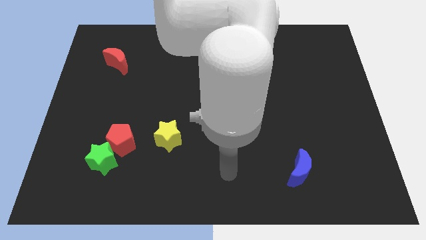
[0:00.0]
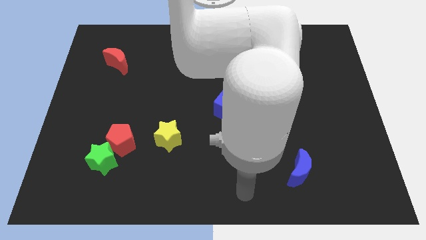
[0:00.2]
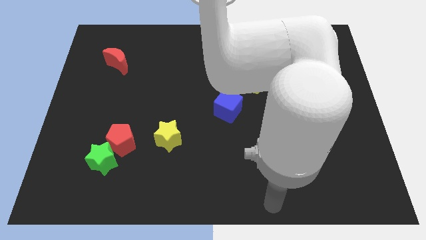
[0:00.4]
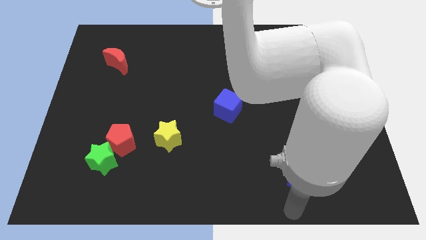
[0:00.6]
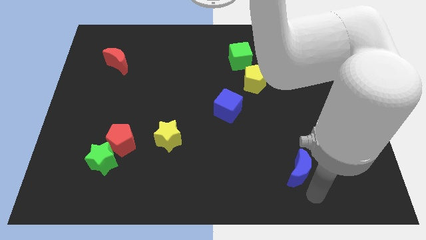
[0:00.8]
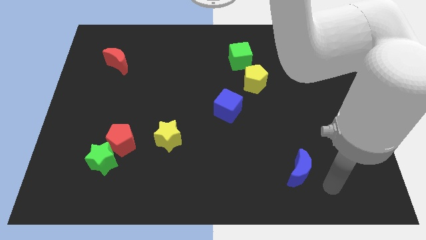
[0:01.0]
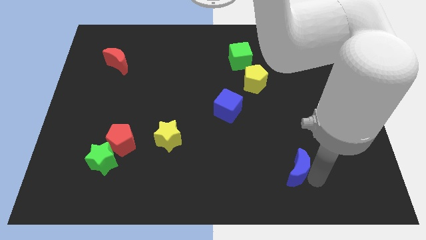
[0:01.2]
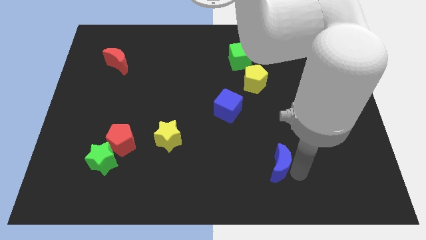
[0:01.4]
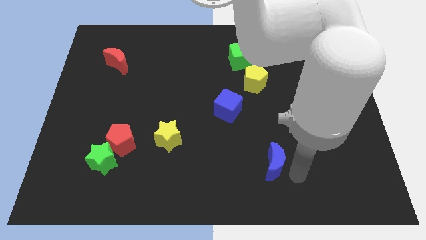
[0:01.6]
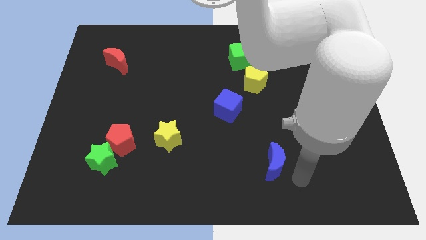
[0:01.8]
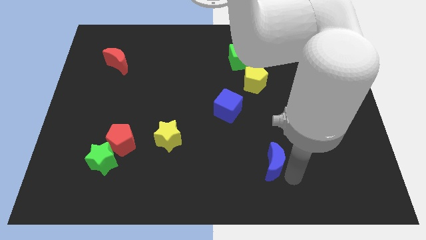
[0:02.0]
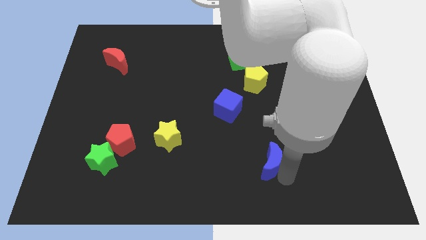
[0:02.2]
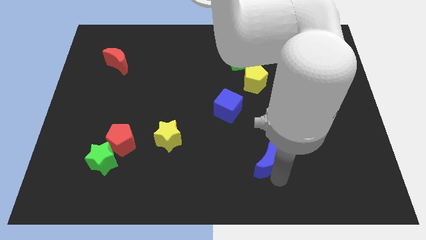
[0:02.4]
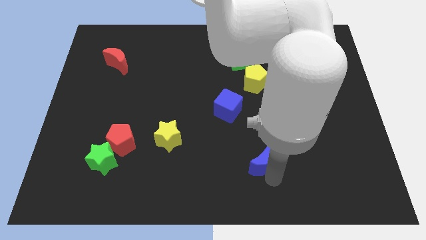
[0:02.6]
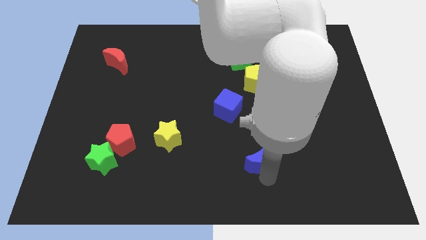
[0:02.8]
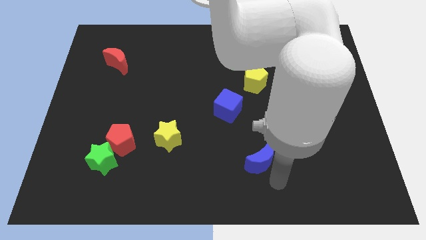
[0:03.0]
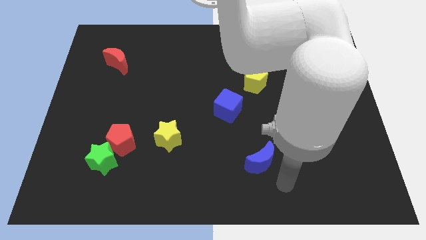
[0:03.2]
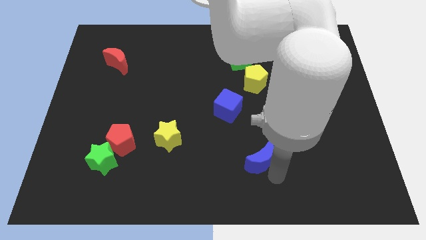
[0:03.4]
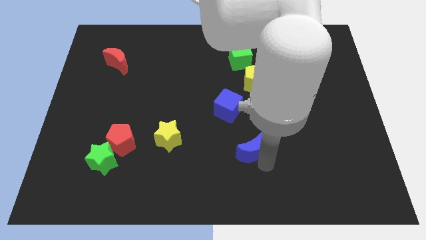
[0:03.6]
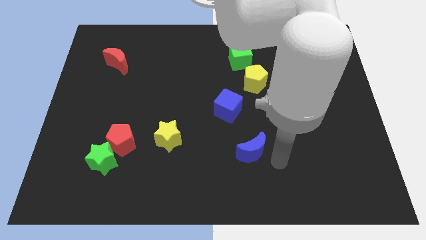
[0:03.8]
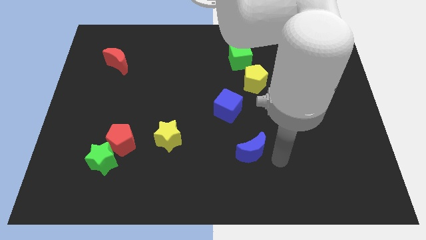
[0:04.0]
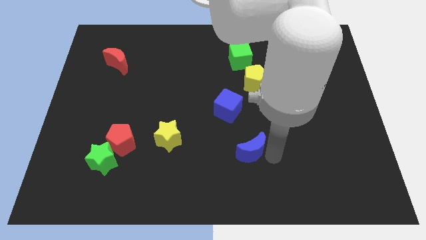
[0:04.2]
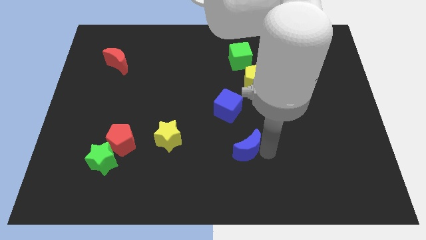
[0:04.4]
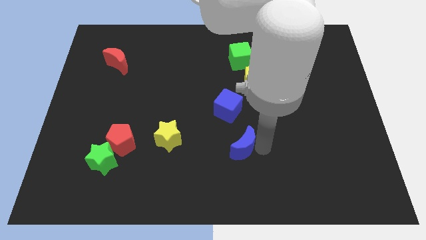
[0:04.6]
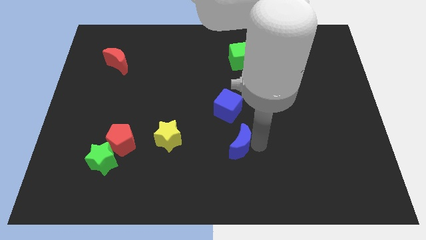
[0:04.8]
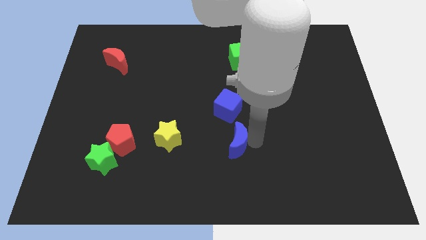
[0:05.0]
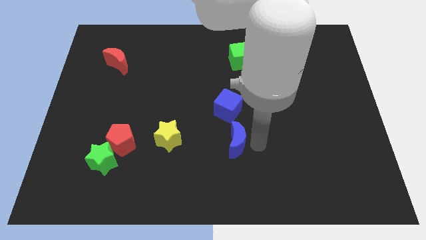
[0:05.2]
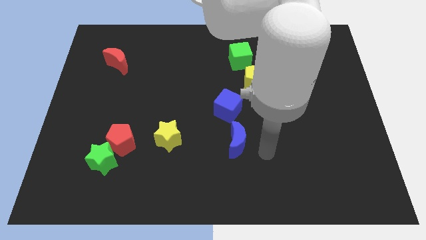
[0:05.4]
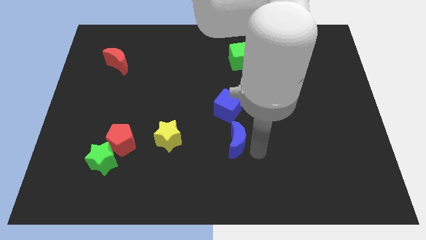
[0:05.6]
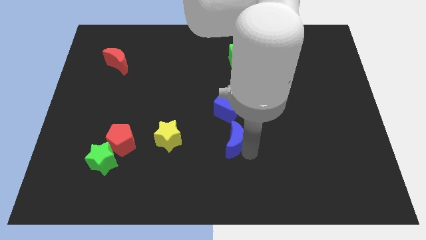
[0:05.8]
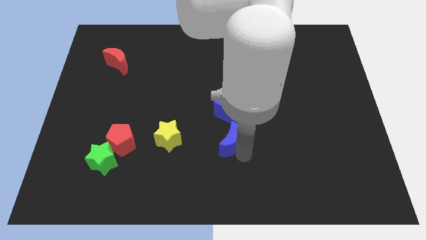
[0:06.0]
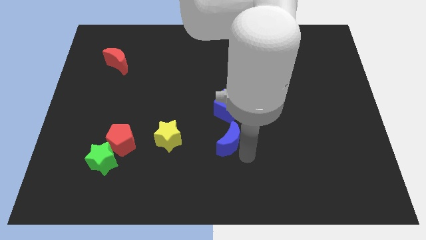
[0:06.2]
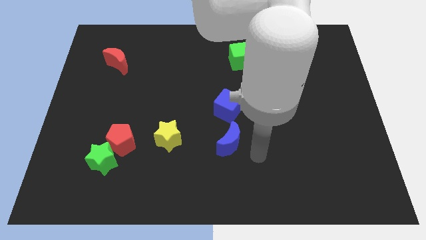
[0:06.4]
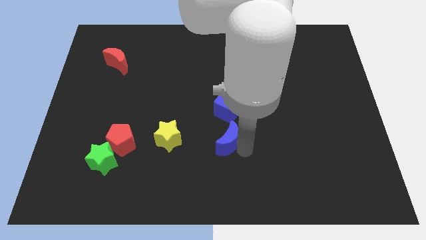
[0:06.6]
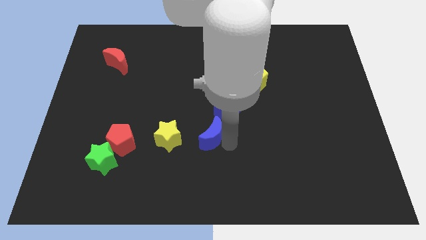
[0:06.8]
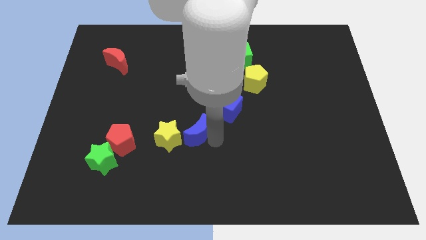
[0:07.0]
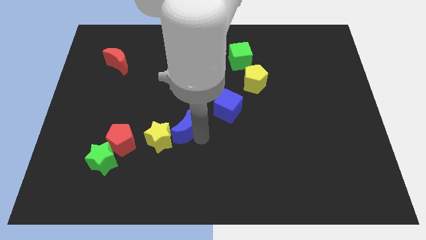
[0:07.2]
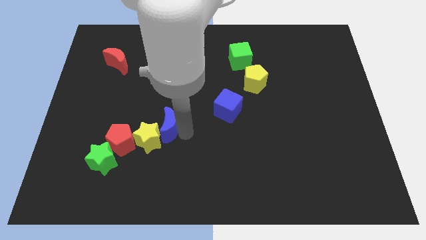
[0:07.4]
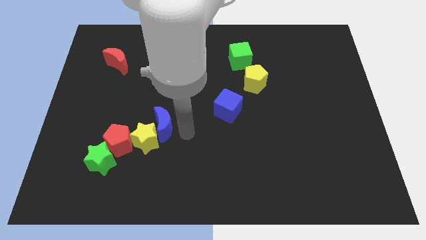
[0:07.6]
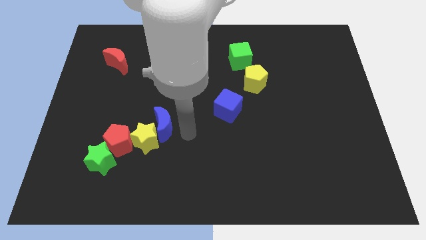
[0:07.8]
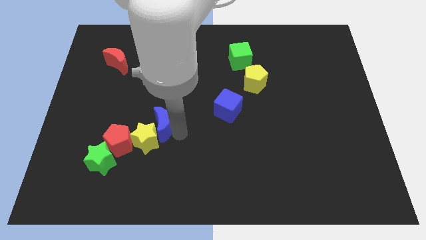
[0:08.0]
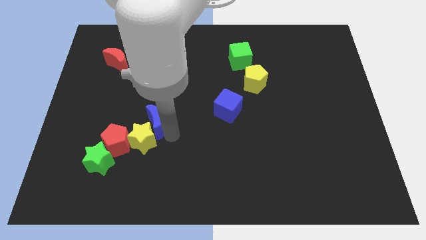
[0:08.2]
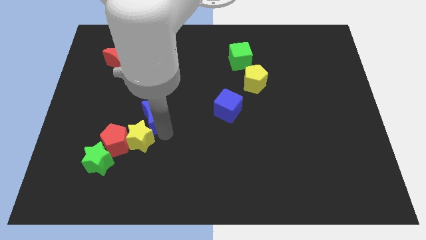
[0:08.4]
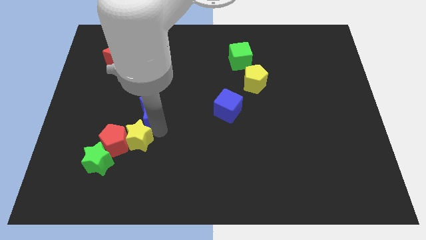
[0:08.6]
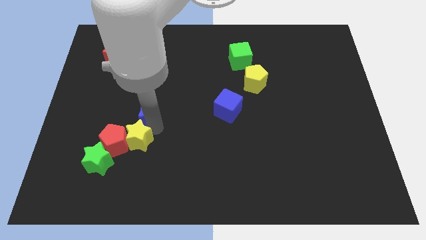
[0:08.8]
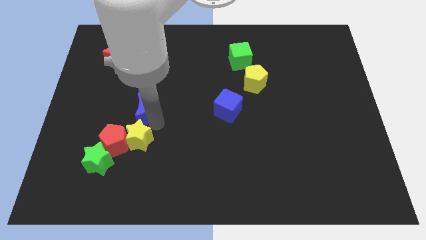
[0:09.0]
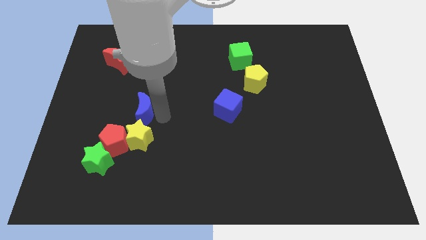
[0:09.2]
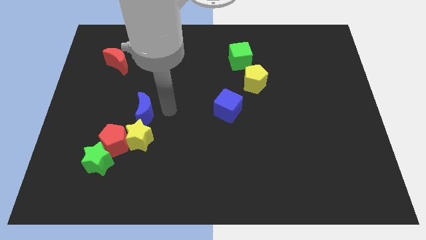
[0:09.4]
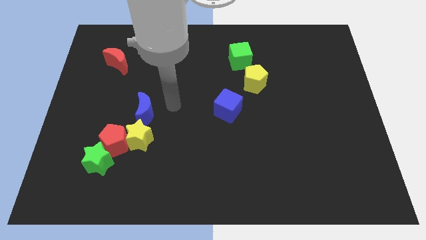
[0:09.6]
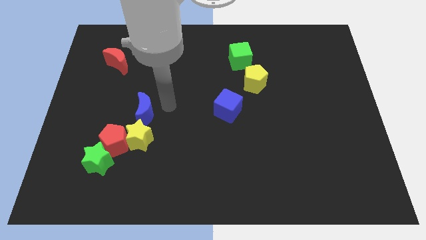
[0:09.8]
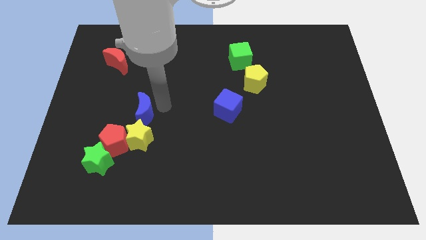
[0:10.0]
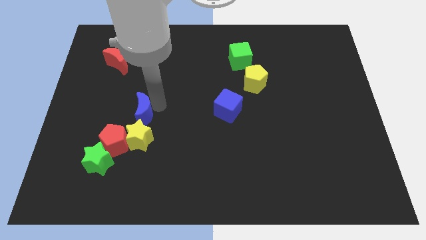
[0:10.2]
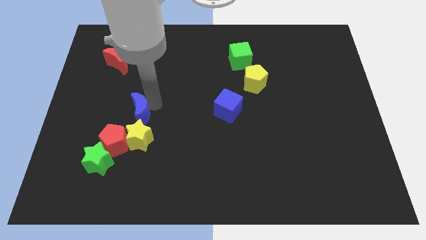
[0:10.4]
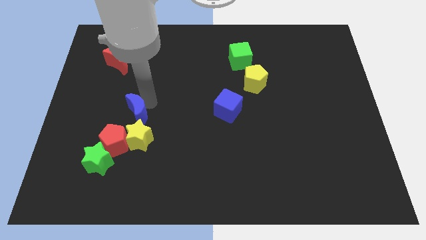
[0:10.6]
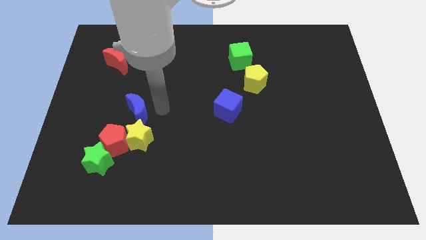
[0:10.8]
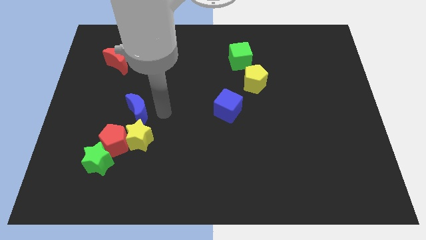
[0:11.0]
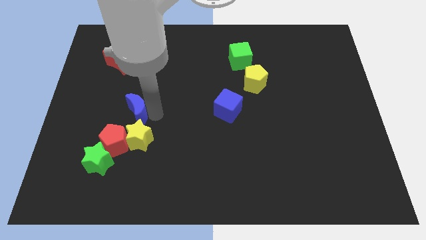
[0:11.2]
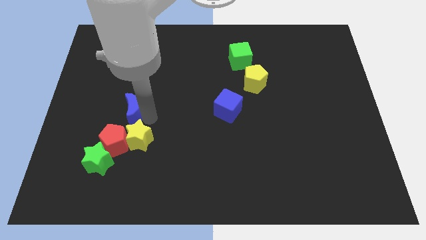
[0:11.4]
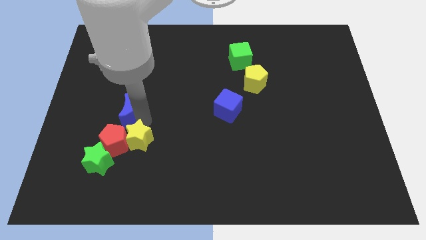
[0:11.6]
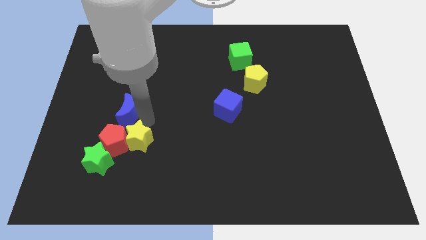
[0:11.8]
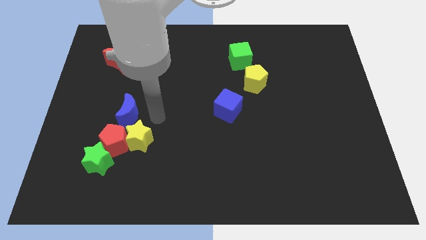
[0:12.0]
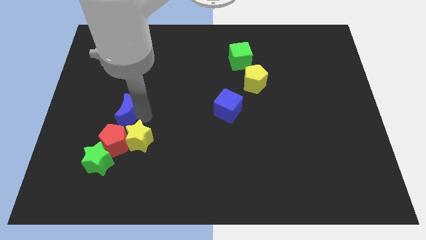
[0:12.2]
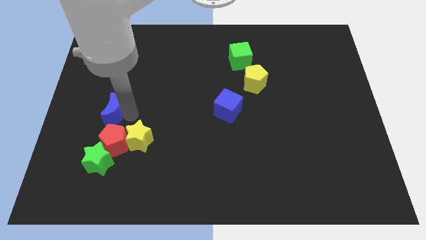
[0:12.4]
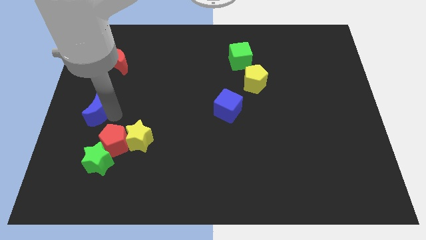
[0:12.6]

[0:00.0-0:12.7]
put the blue moon to the center left
